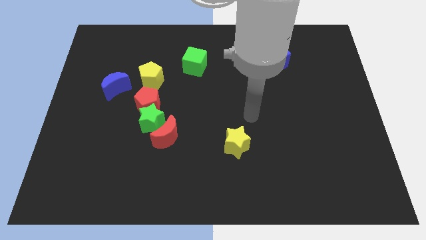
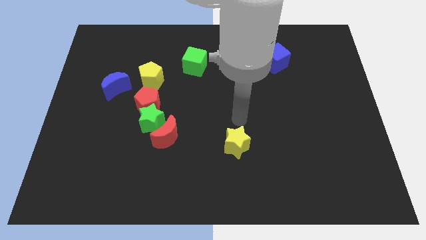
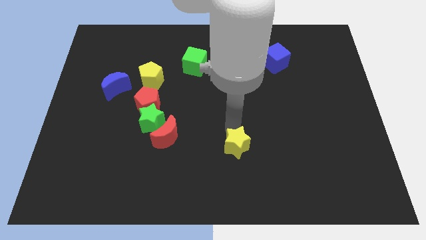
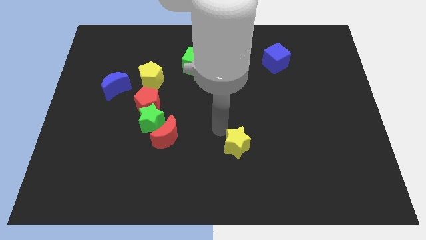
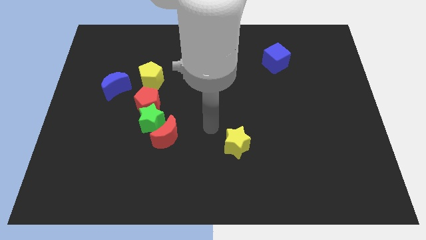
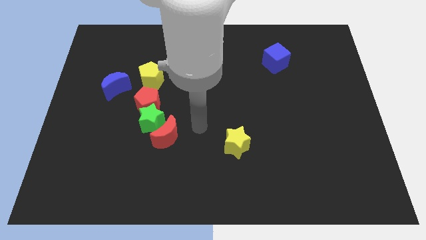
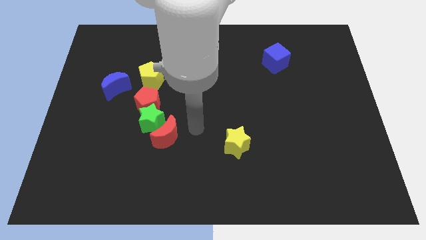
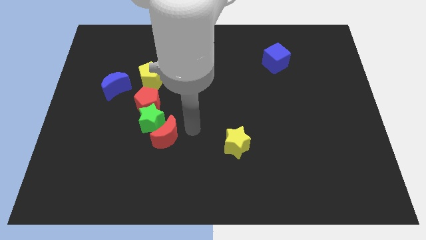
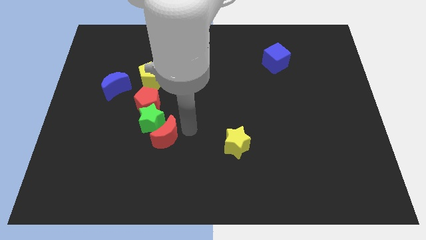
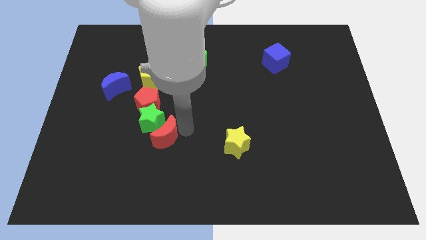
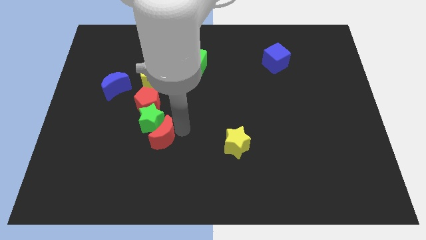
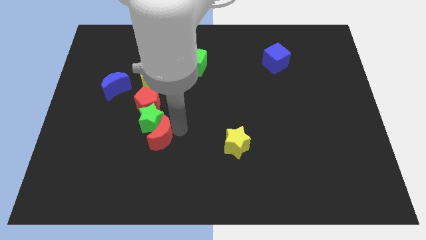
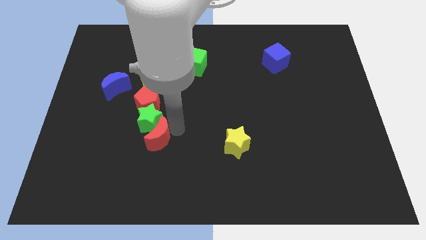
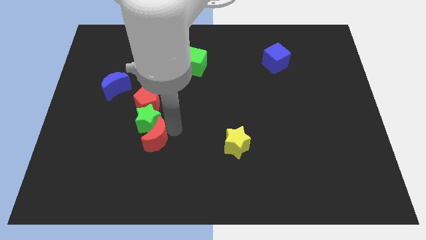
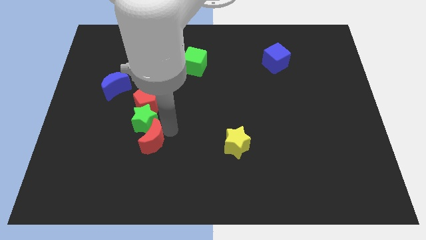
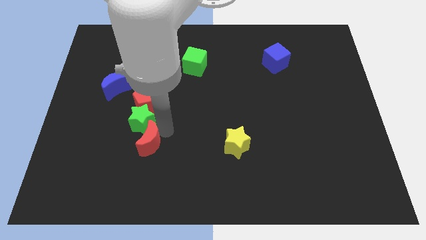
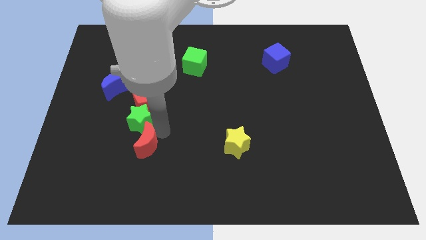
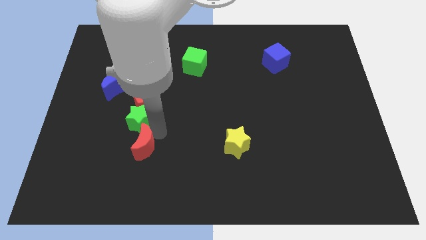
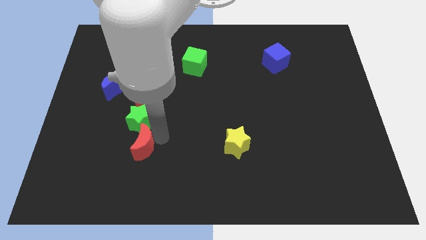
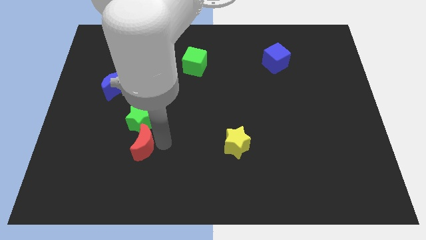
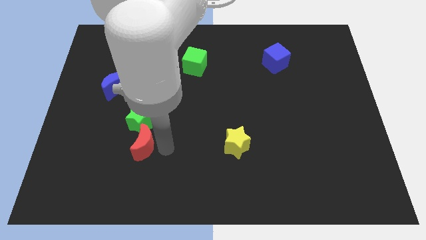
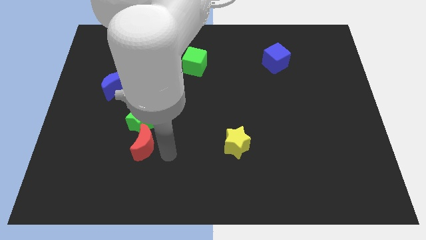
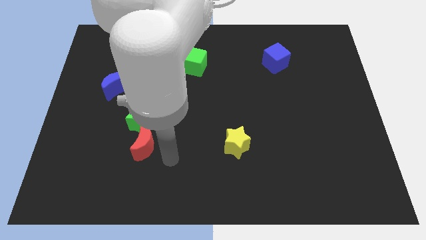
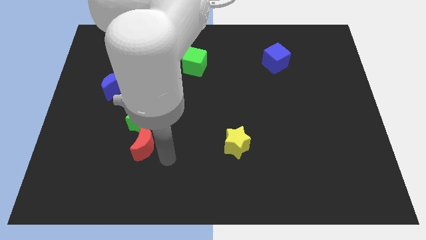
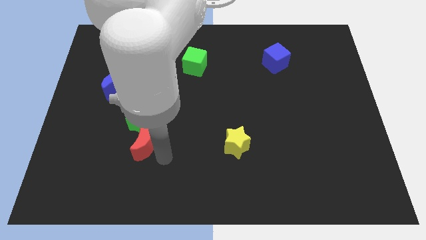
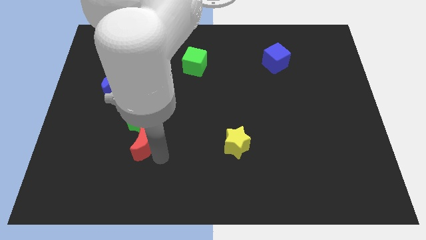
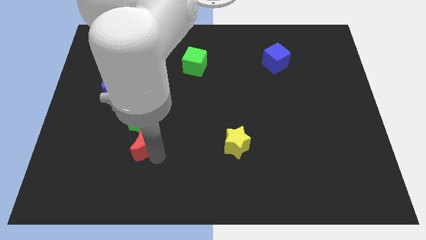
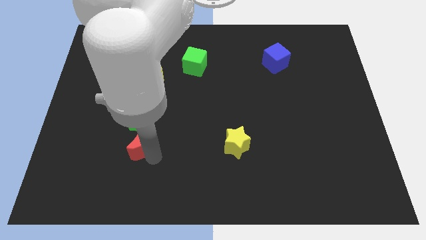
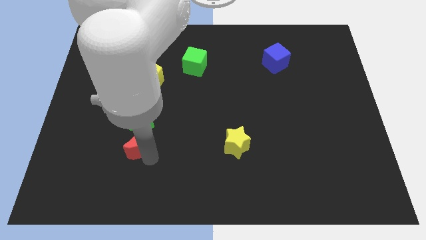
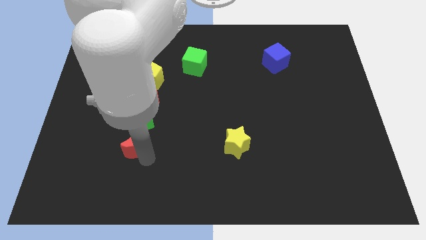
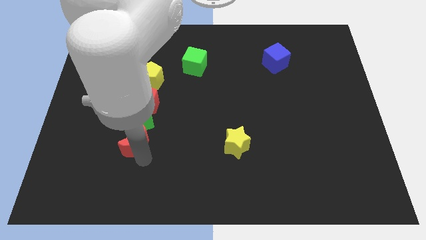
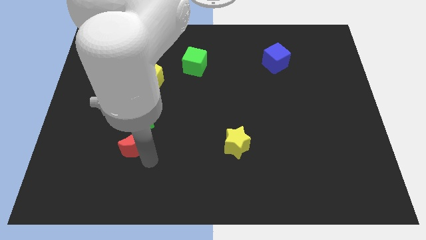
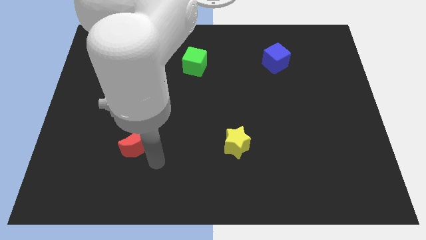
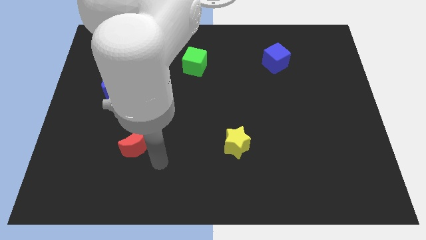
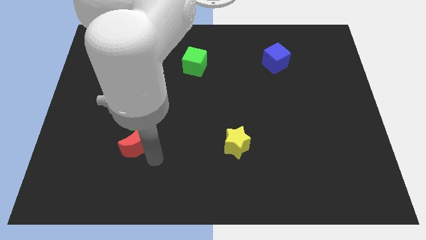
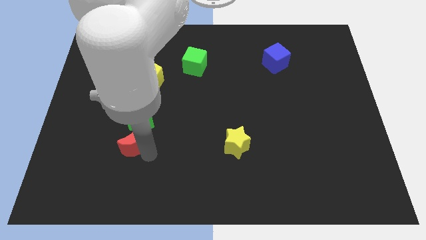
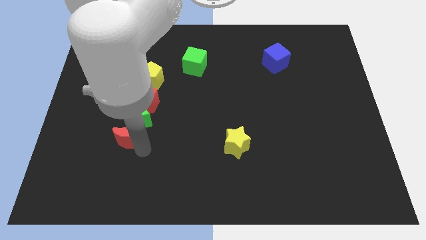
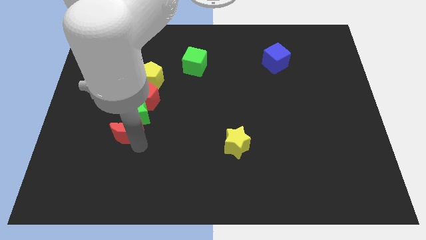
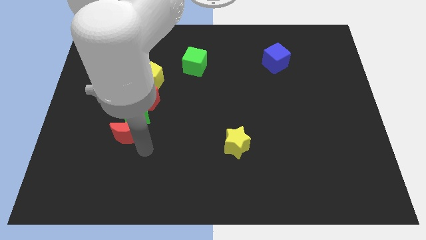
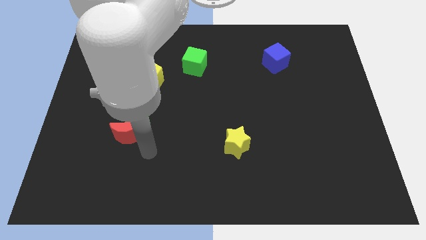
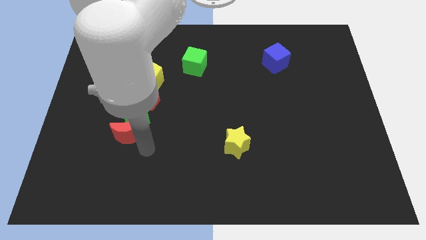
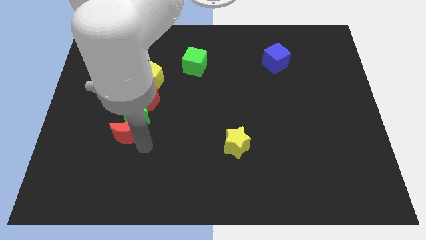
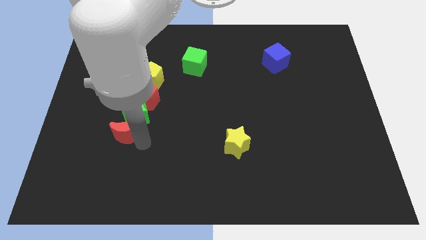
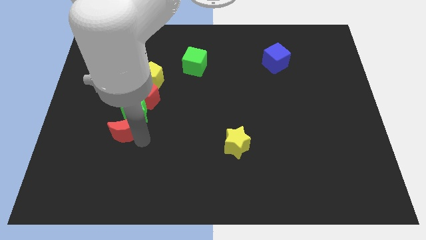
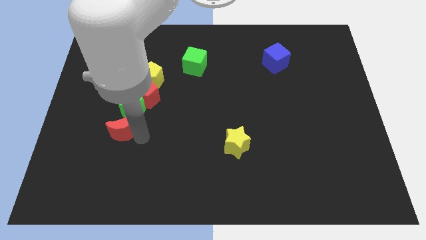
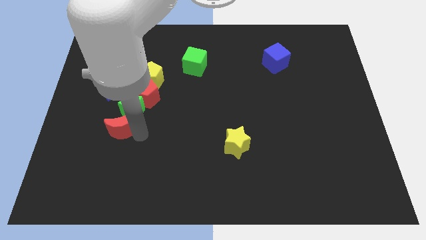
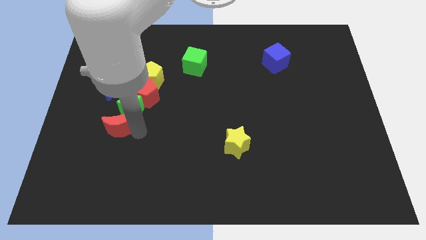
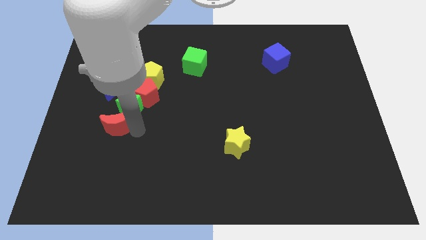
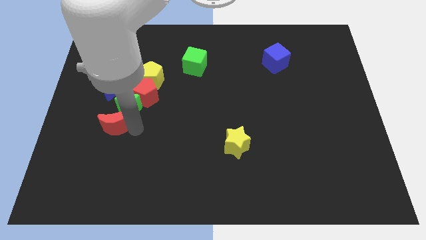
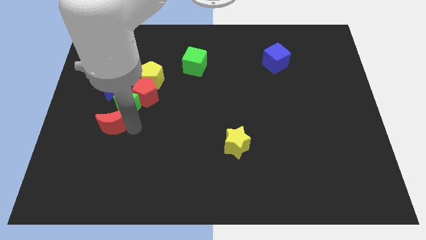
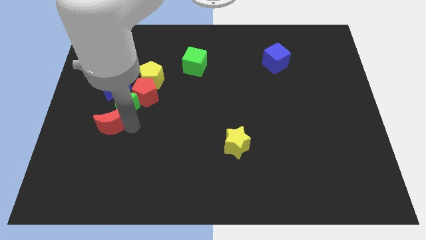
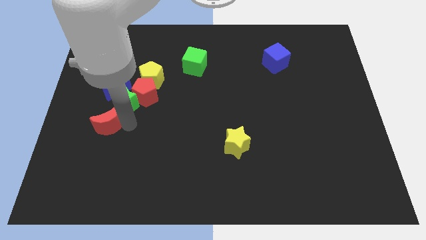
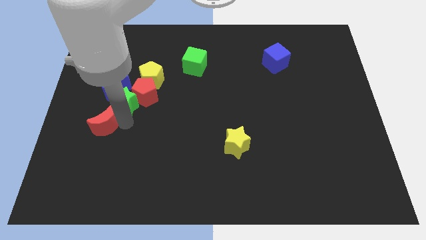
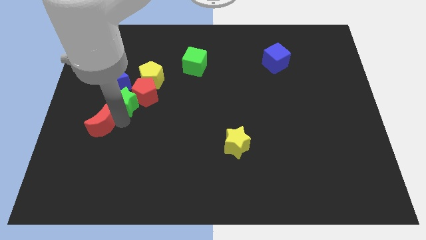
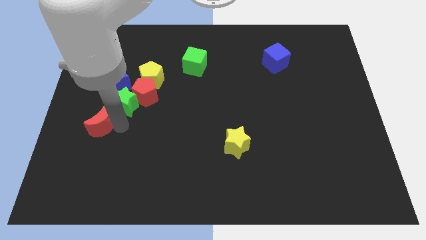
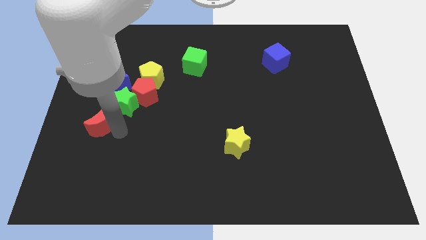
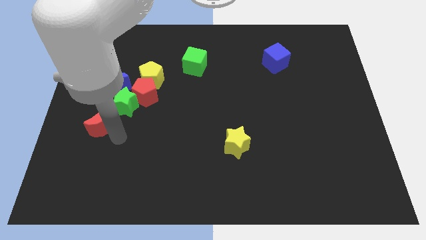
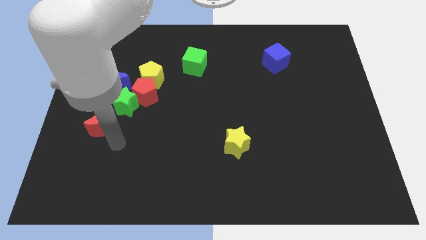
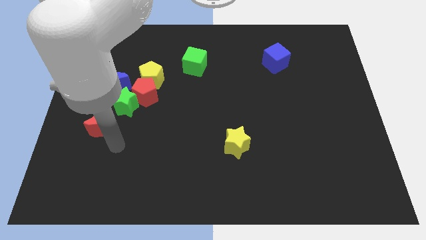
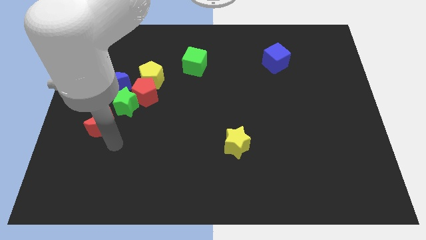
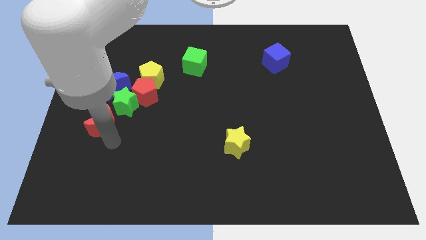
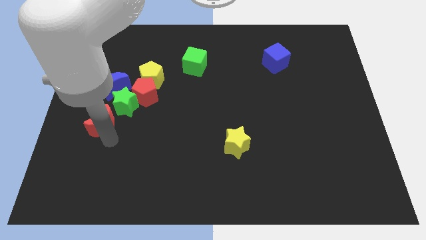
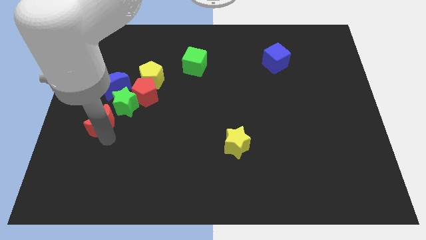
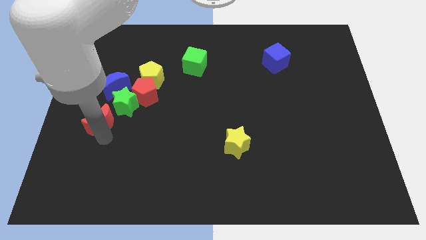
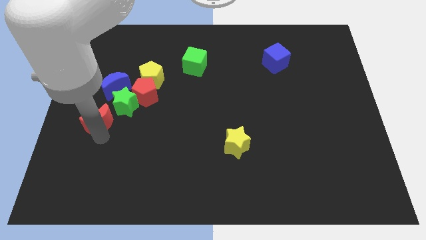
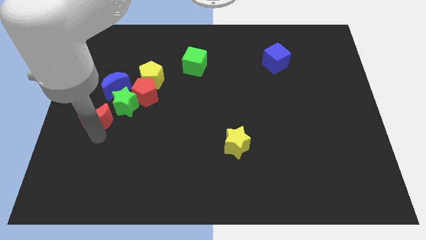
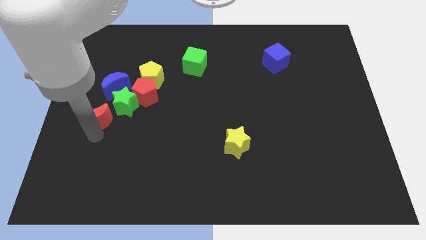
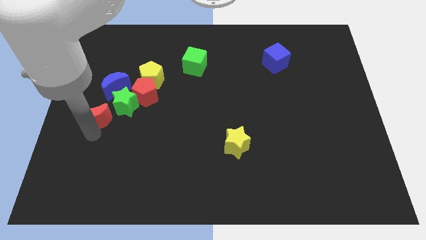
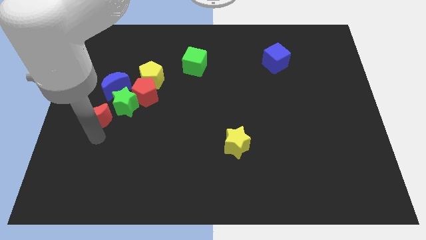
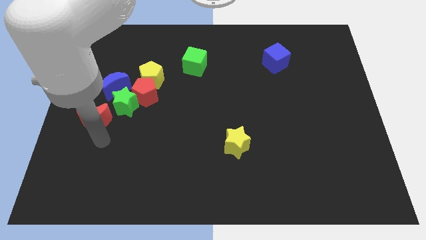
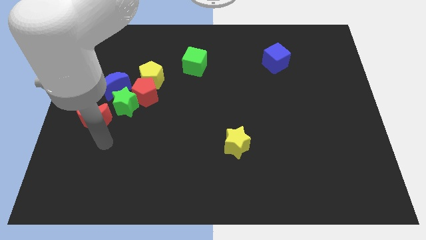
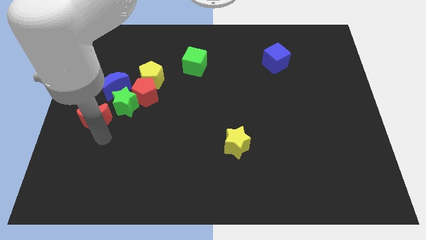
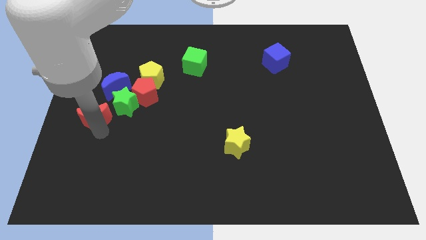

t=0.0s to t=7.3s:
move the red moon to the bottom left side of the blue moon
